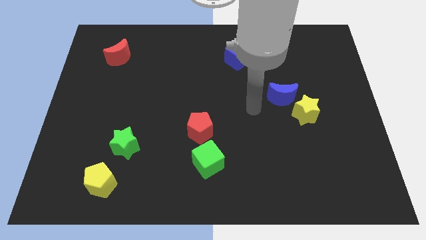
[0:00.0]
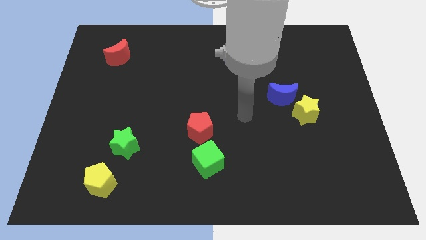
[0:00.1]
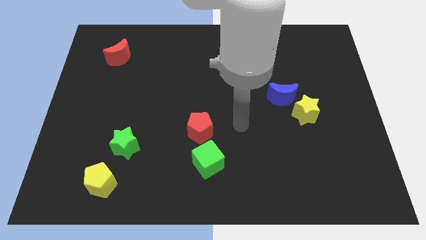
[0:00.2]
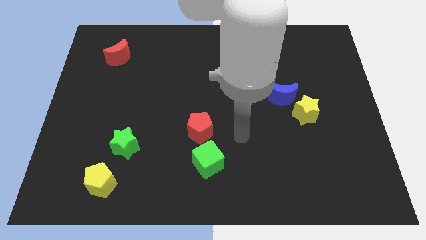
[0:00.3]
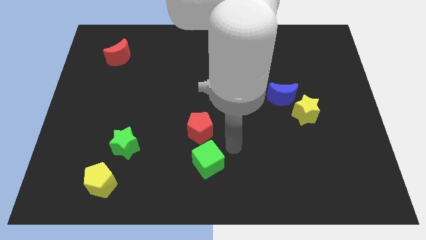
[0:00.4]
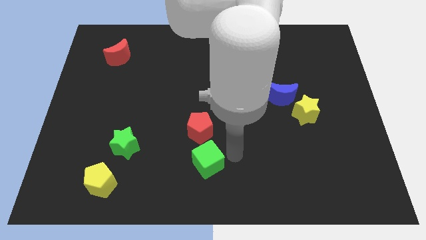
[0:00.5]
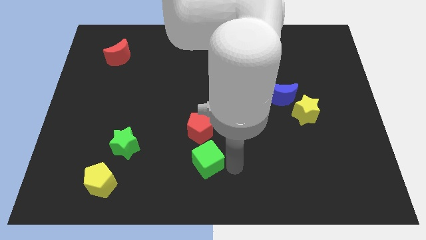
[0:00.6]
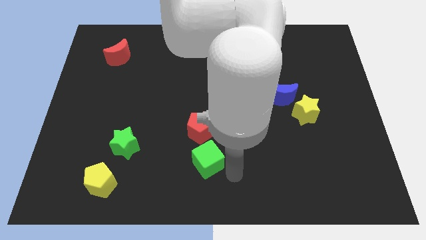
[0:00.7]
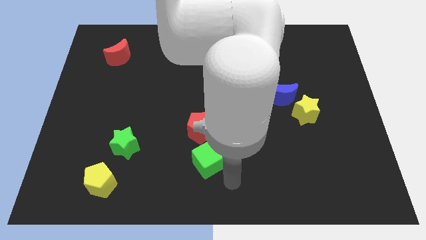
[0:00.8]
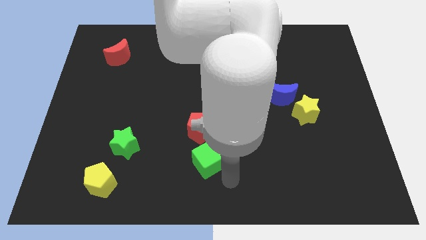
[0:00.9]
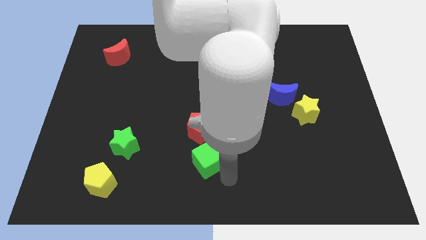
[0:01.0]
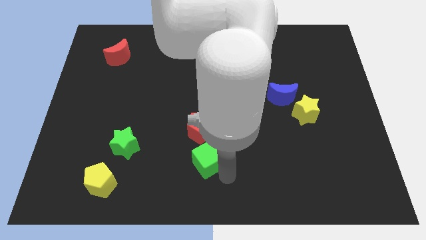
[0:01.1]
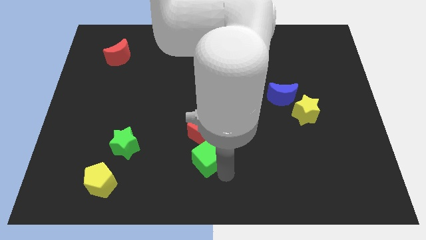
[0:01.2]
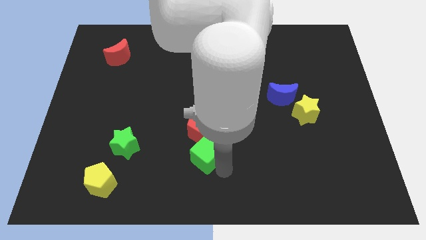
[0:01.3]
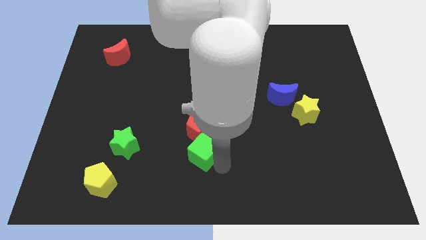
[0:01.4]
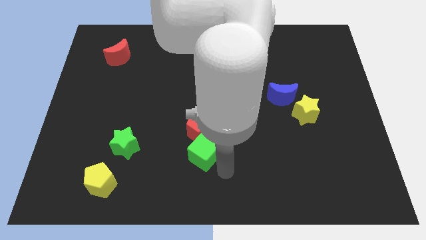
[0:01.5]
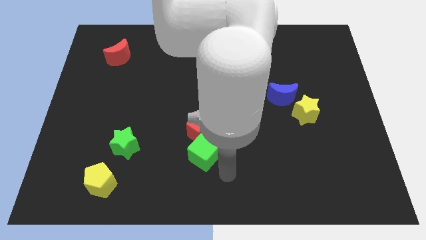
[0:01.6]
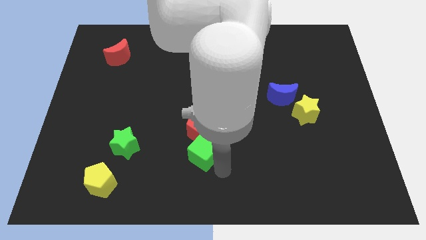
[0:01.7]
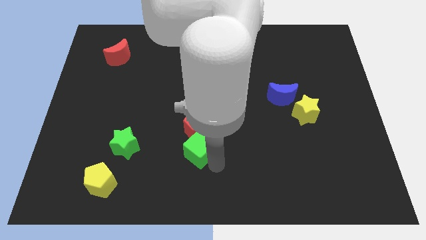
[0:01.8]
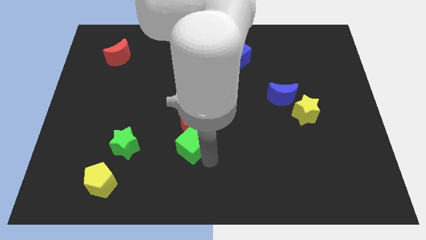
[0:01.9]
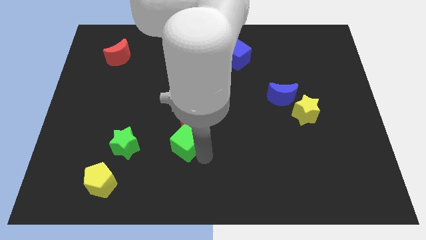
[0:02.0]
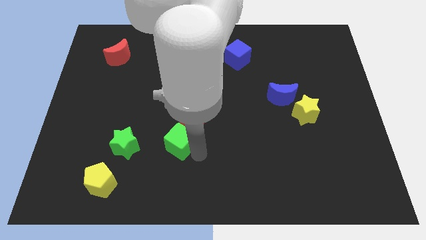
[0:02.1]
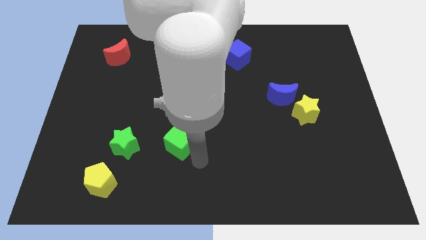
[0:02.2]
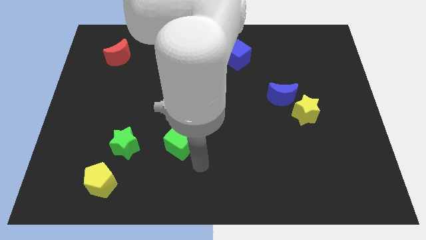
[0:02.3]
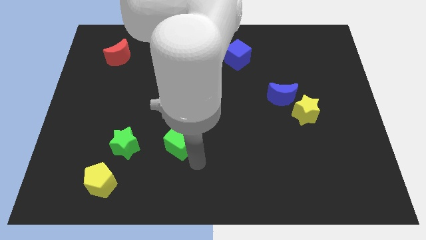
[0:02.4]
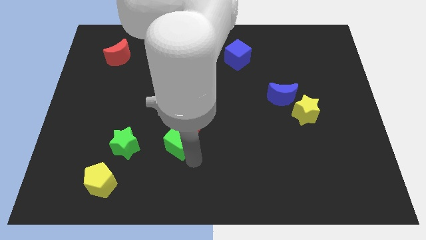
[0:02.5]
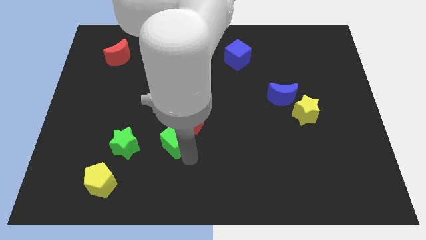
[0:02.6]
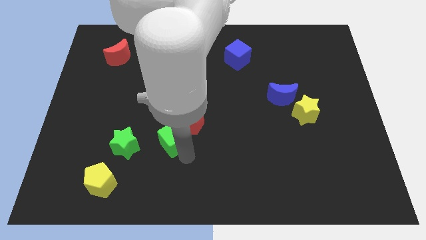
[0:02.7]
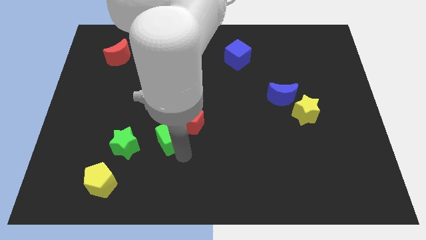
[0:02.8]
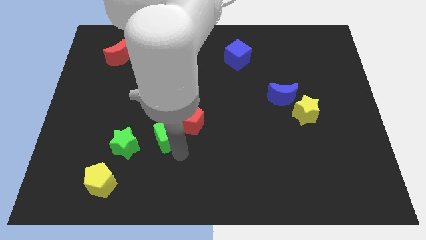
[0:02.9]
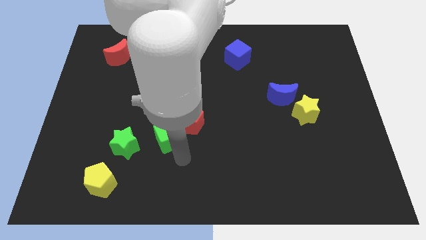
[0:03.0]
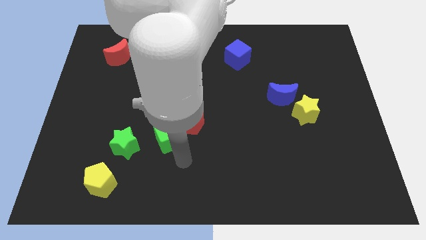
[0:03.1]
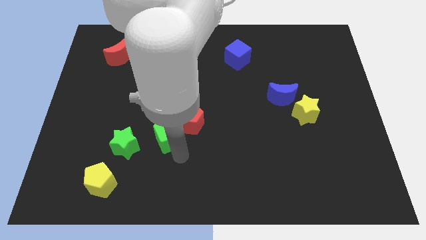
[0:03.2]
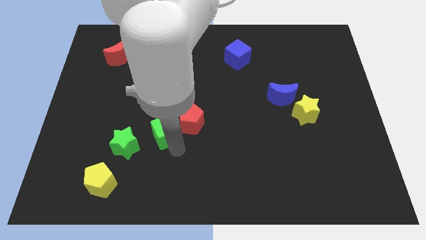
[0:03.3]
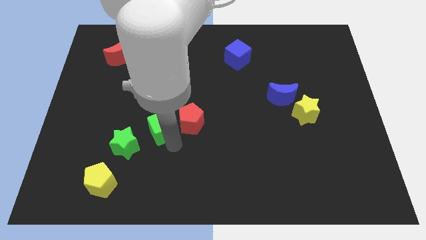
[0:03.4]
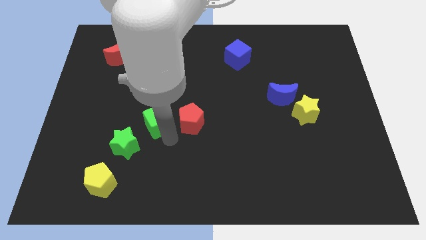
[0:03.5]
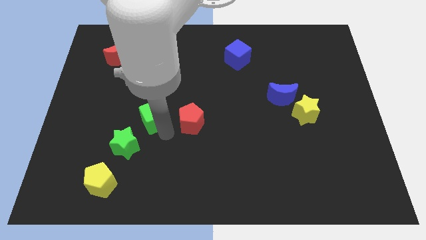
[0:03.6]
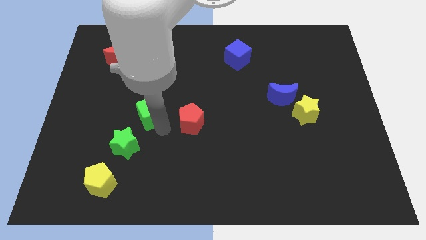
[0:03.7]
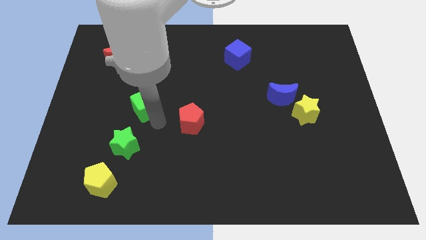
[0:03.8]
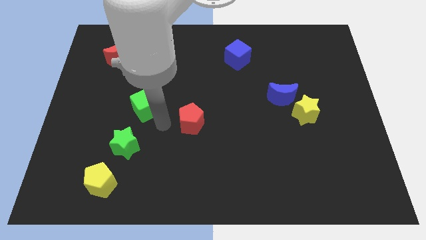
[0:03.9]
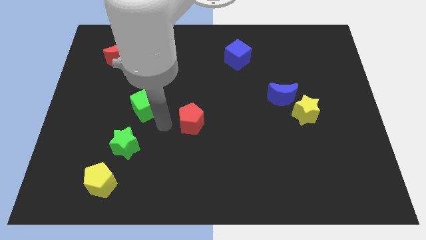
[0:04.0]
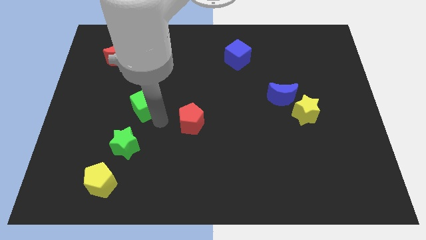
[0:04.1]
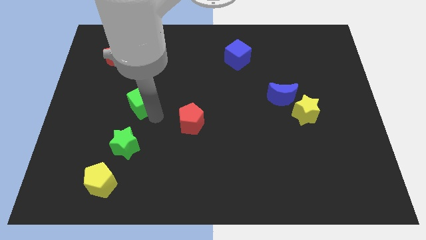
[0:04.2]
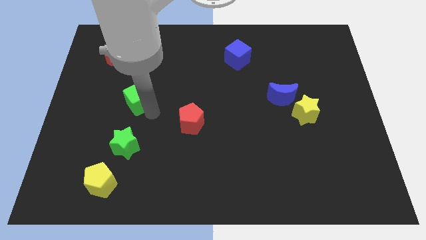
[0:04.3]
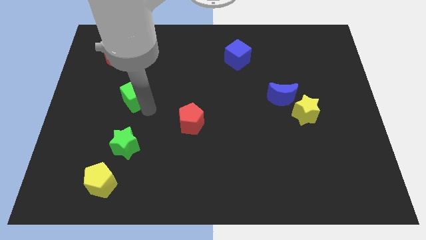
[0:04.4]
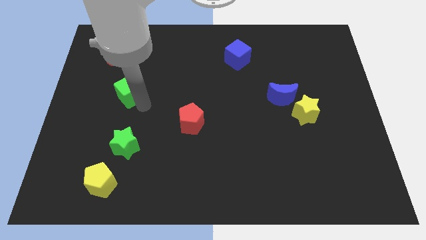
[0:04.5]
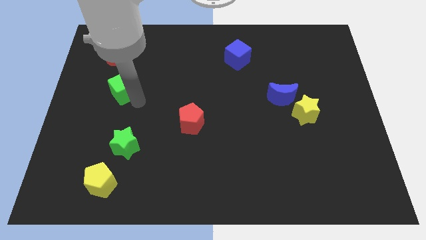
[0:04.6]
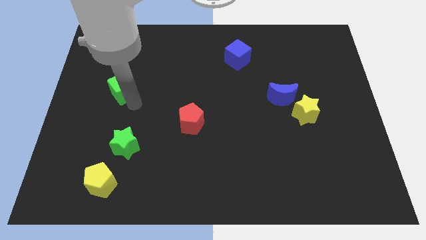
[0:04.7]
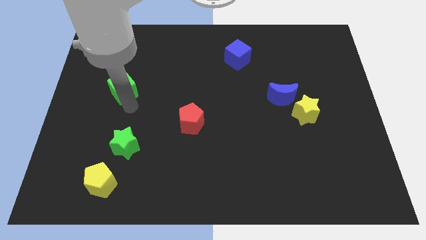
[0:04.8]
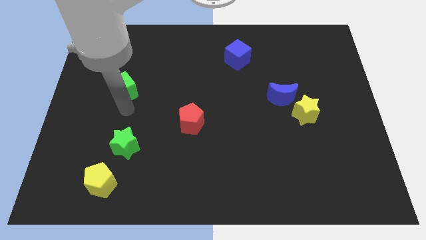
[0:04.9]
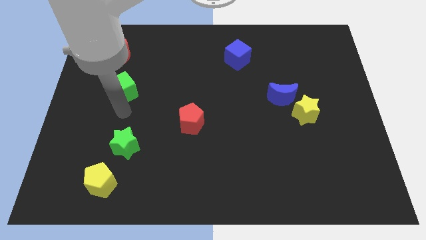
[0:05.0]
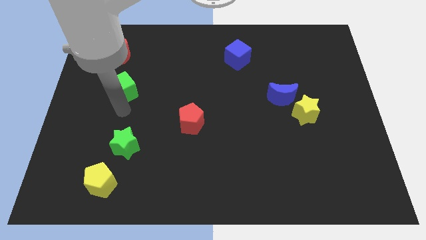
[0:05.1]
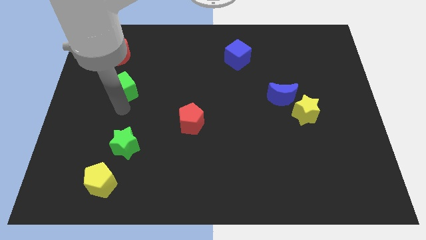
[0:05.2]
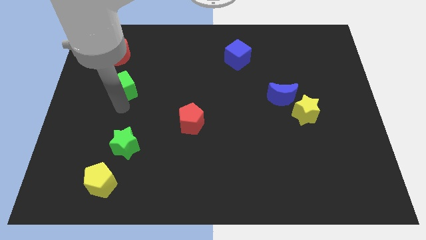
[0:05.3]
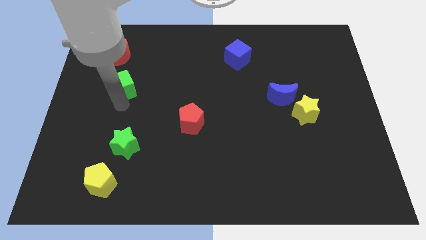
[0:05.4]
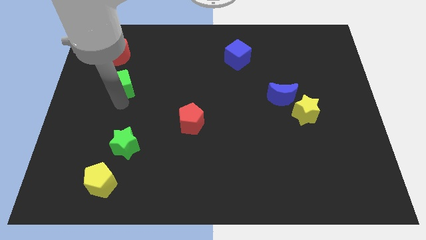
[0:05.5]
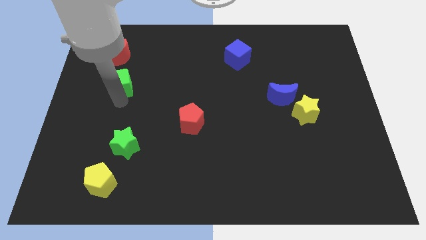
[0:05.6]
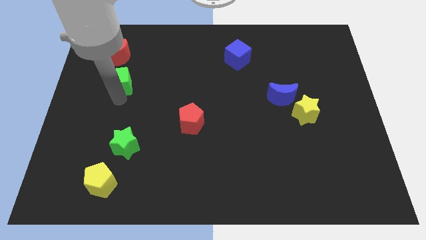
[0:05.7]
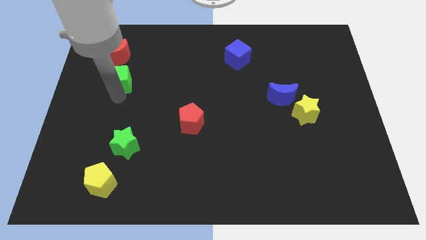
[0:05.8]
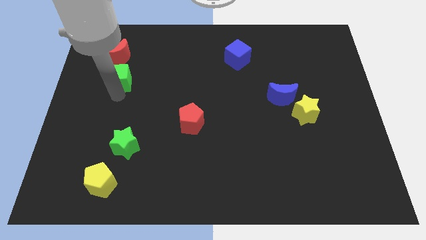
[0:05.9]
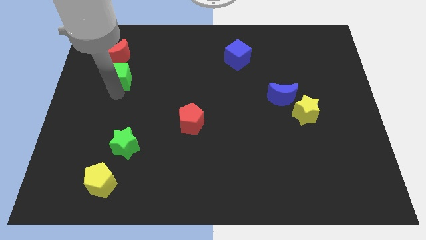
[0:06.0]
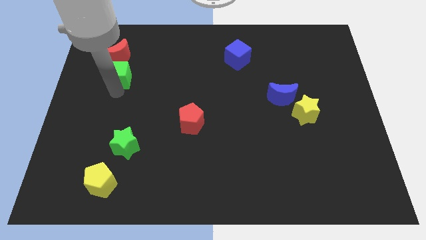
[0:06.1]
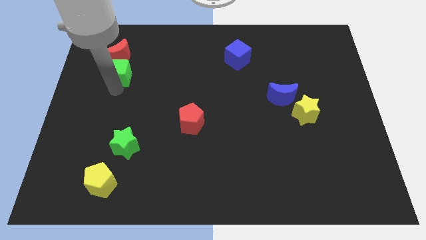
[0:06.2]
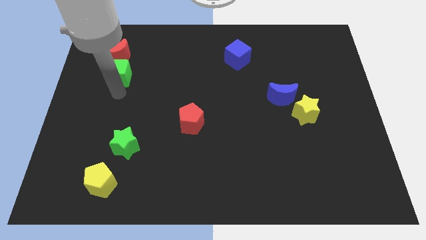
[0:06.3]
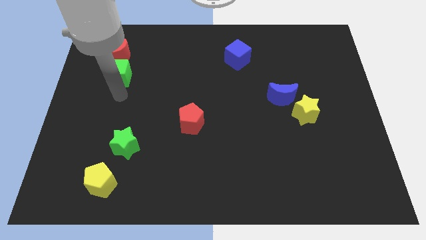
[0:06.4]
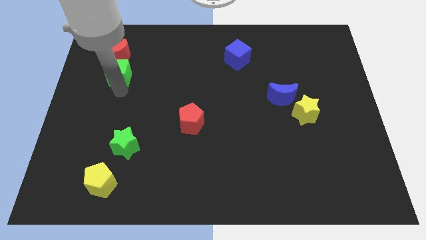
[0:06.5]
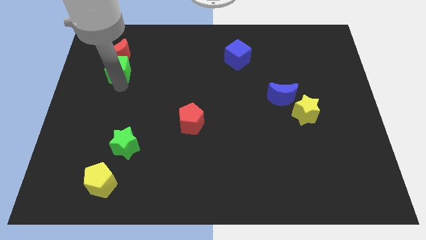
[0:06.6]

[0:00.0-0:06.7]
slide the green cube next to the red moon
